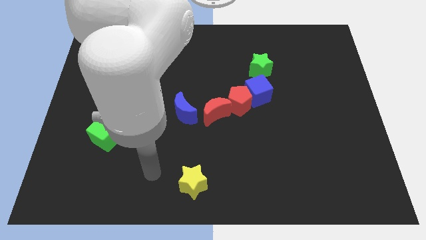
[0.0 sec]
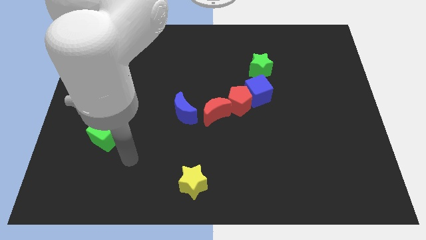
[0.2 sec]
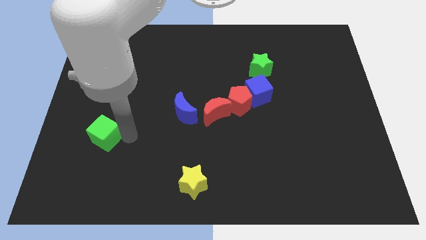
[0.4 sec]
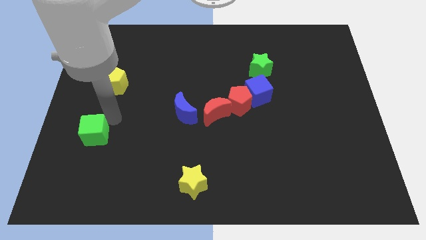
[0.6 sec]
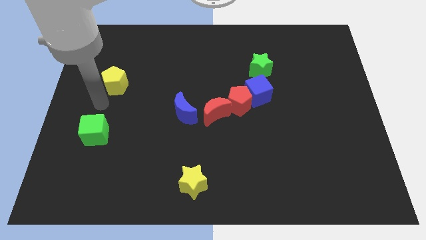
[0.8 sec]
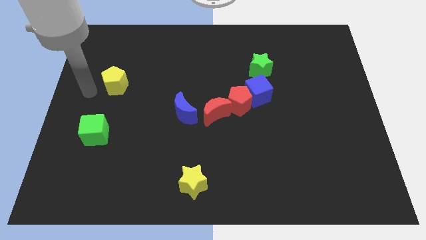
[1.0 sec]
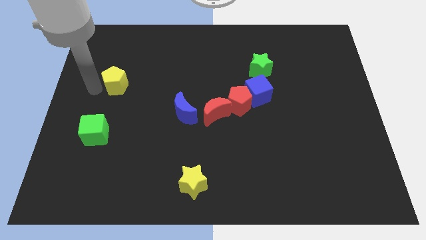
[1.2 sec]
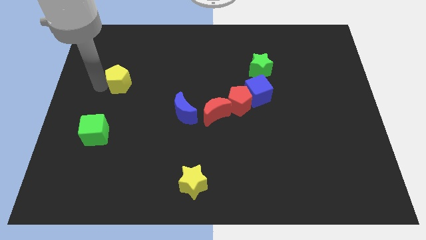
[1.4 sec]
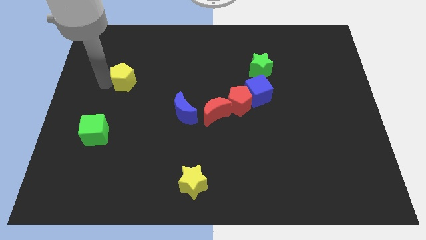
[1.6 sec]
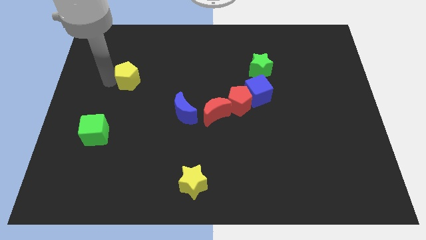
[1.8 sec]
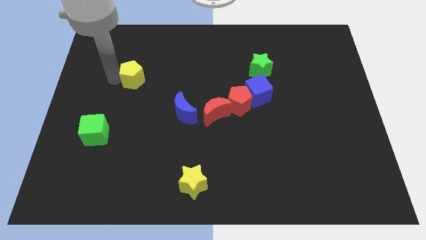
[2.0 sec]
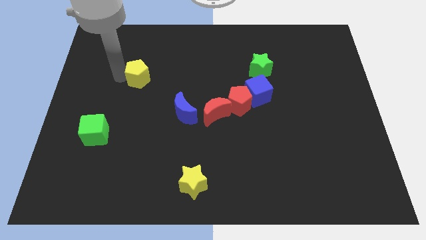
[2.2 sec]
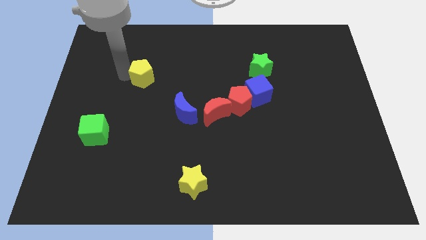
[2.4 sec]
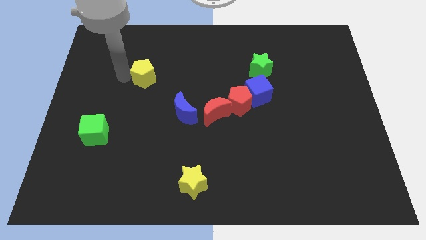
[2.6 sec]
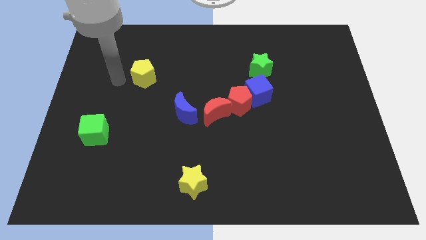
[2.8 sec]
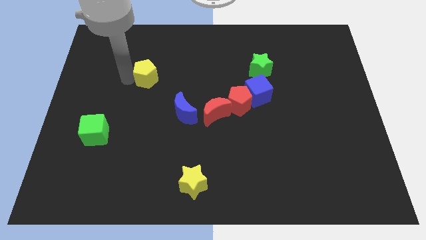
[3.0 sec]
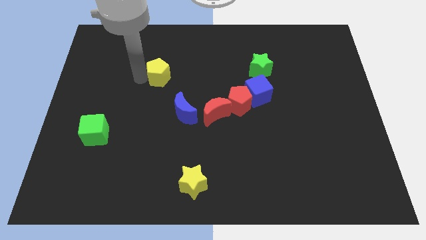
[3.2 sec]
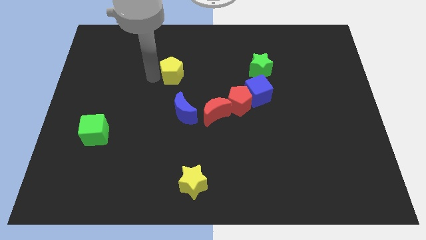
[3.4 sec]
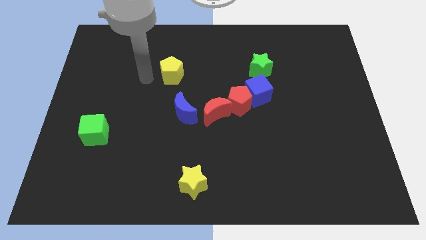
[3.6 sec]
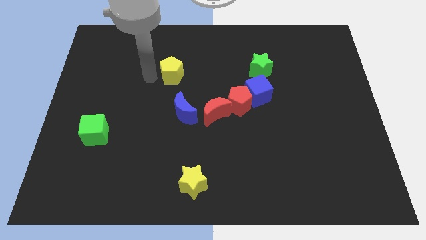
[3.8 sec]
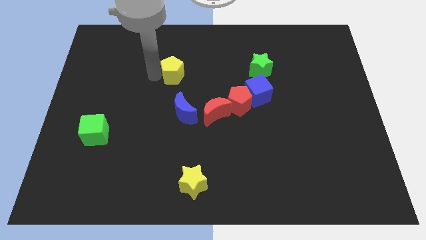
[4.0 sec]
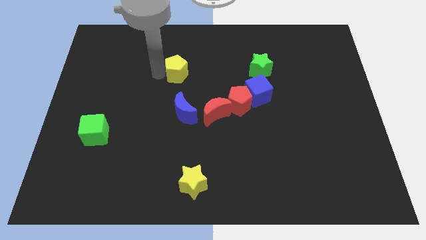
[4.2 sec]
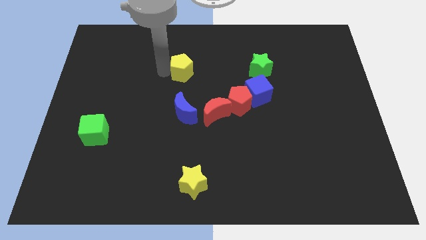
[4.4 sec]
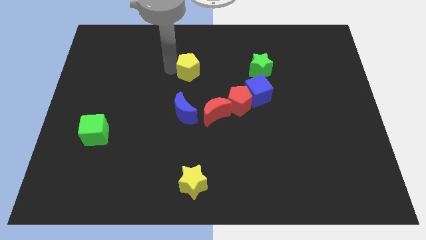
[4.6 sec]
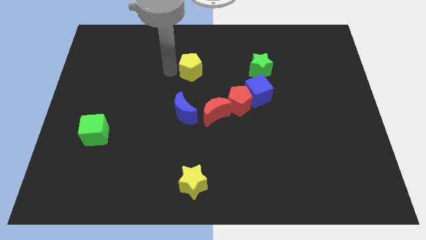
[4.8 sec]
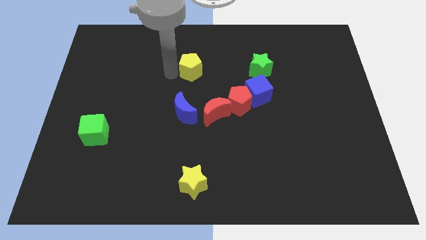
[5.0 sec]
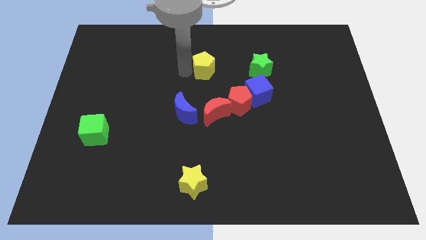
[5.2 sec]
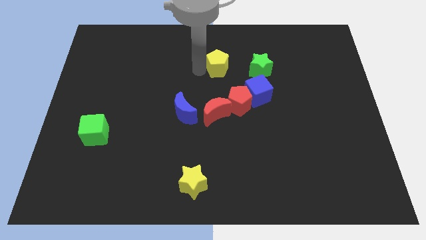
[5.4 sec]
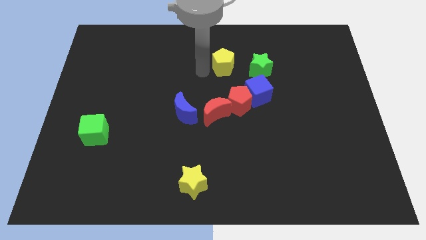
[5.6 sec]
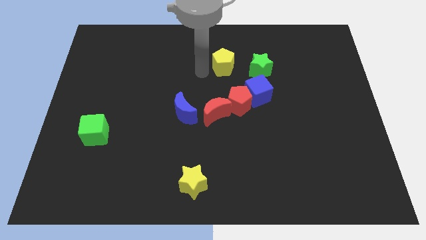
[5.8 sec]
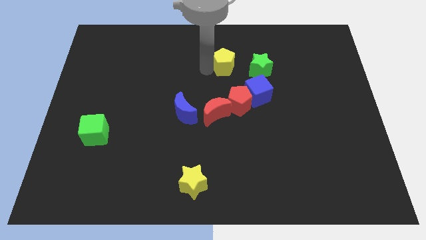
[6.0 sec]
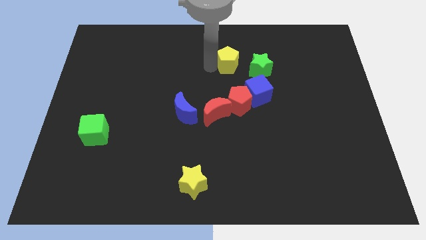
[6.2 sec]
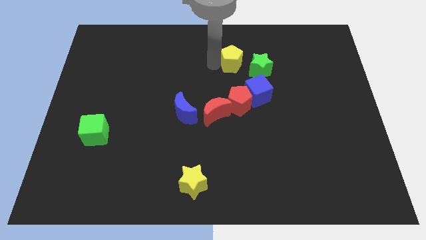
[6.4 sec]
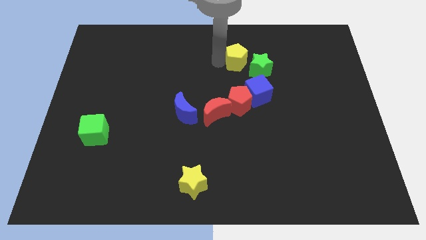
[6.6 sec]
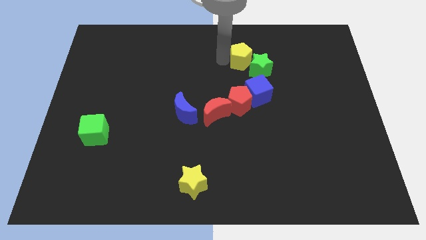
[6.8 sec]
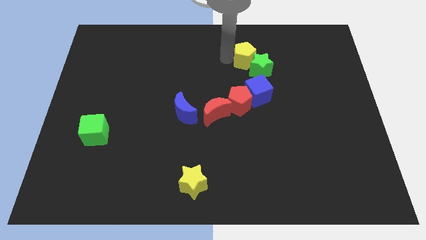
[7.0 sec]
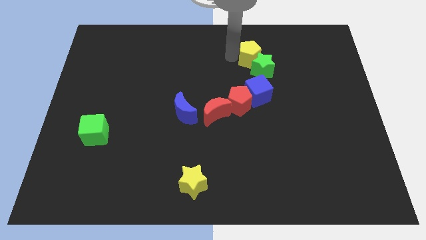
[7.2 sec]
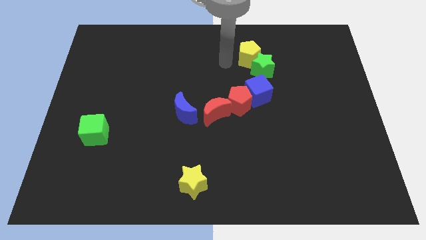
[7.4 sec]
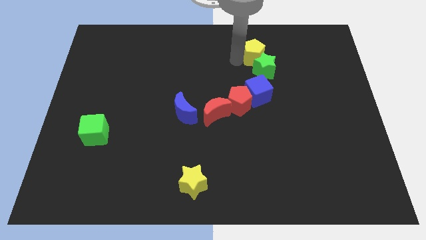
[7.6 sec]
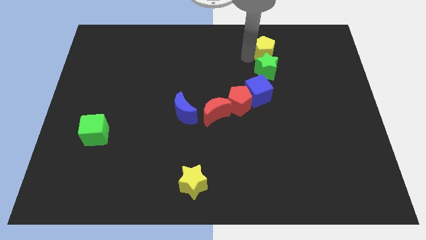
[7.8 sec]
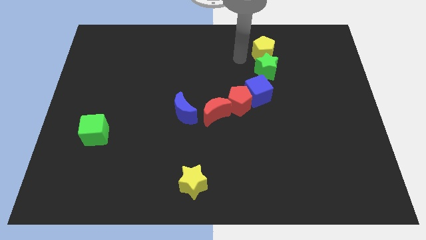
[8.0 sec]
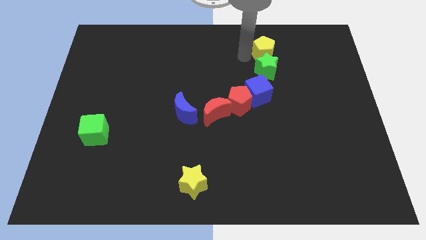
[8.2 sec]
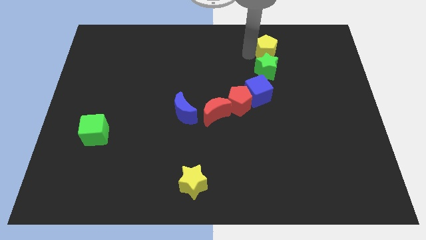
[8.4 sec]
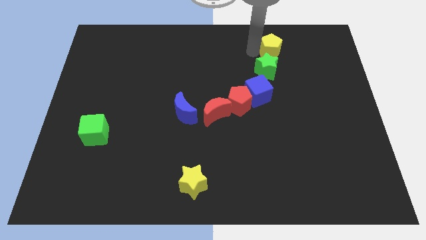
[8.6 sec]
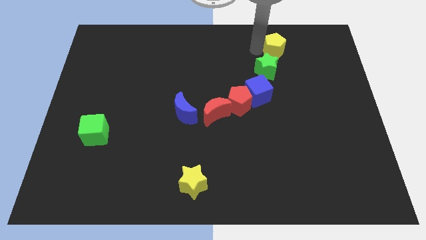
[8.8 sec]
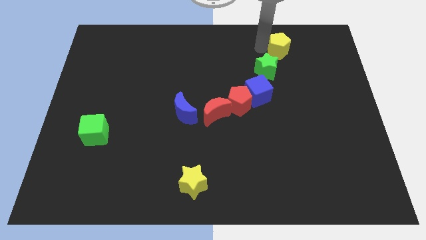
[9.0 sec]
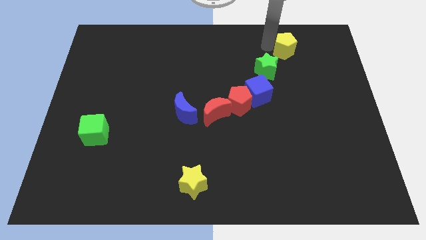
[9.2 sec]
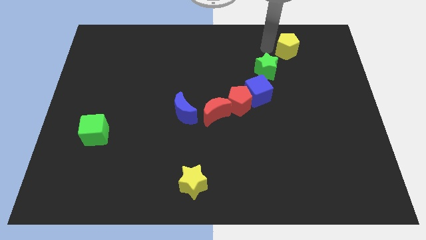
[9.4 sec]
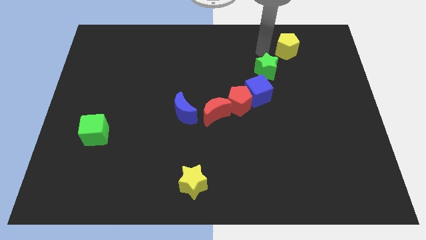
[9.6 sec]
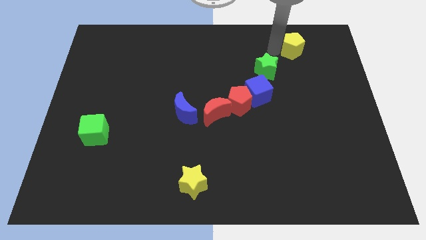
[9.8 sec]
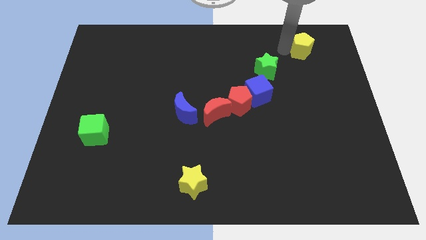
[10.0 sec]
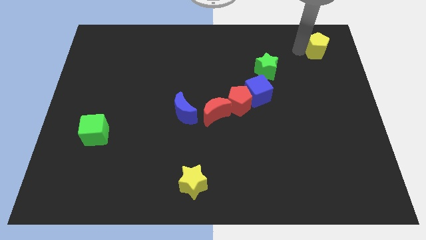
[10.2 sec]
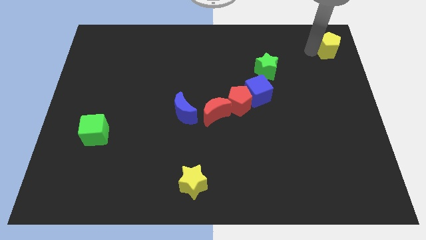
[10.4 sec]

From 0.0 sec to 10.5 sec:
slide the yellow pentagon to the top right corner

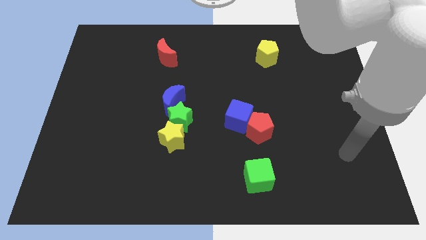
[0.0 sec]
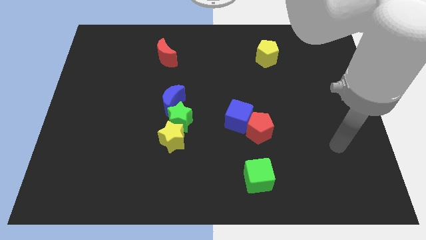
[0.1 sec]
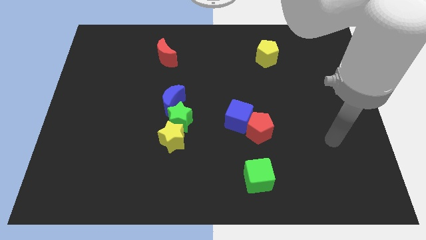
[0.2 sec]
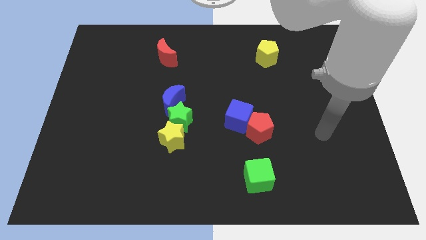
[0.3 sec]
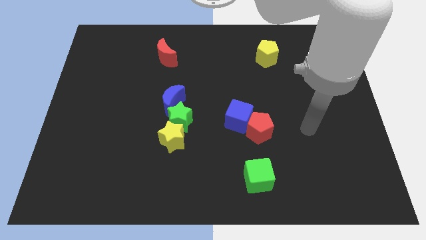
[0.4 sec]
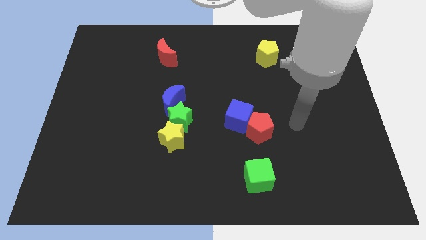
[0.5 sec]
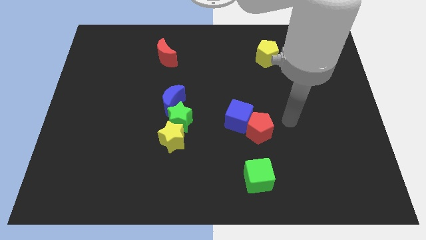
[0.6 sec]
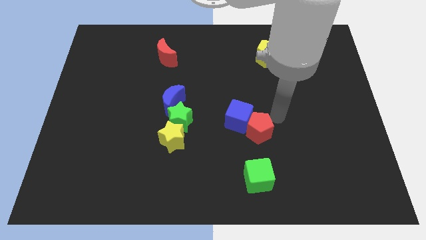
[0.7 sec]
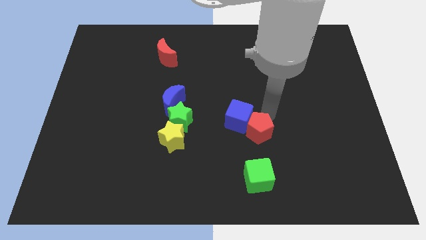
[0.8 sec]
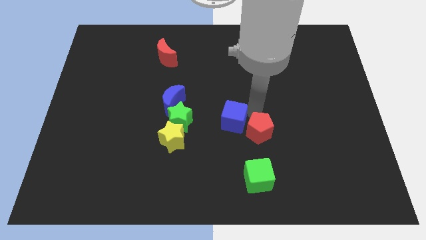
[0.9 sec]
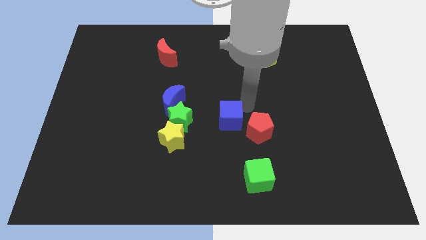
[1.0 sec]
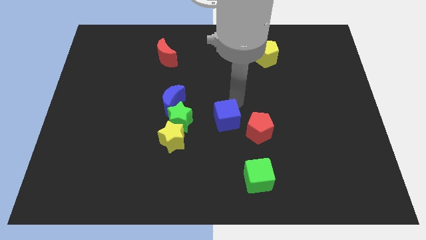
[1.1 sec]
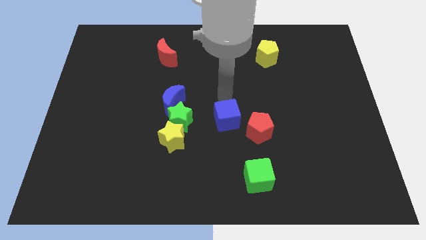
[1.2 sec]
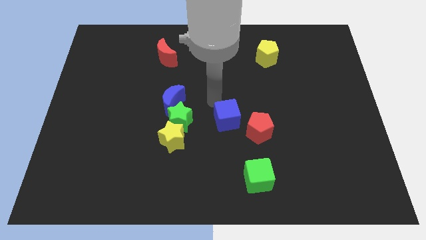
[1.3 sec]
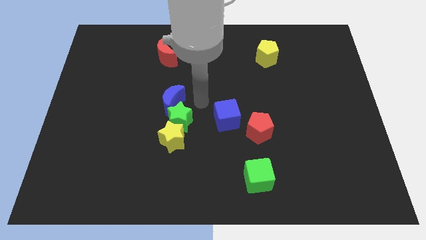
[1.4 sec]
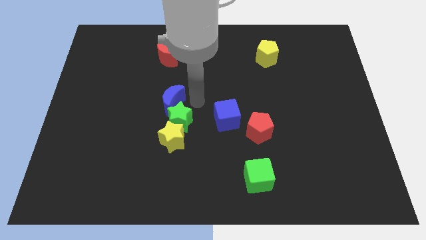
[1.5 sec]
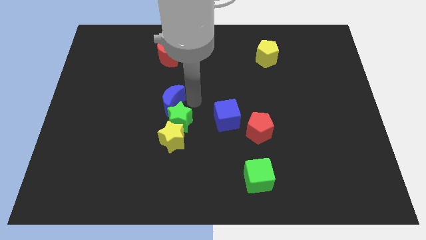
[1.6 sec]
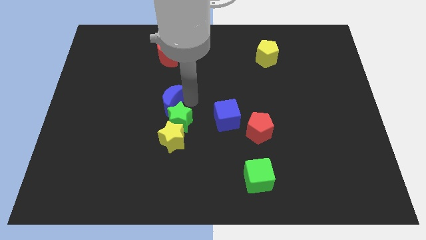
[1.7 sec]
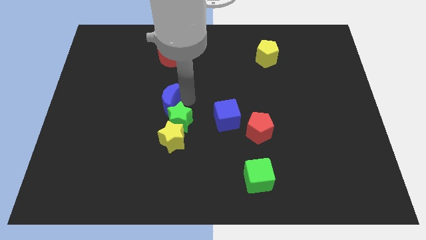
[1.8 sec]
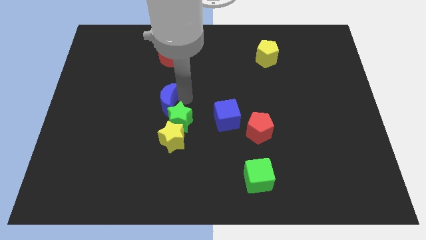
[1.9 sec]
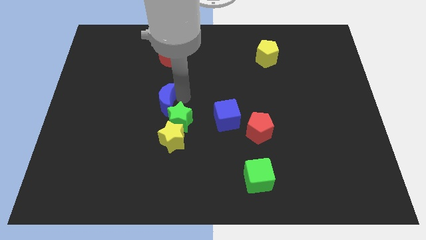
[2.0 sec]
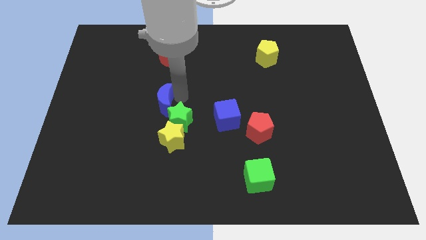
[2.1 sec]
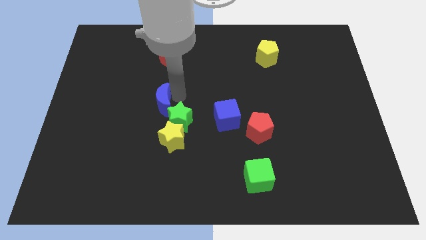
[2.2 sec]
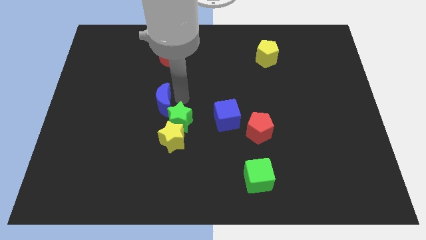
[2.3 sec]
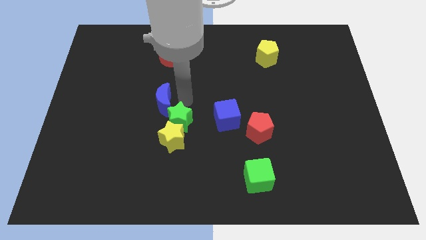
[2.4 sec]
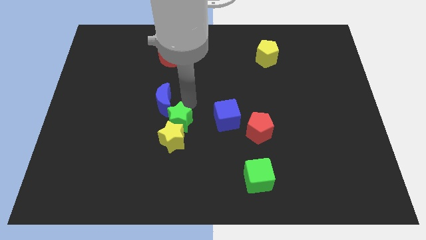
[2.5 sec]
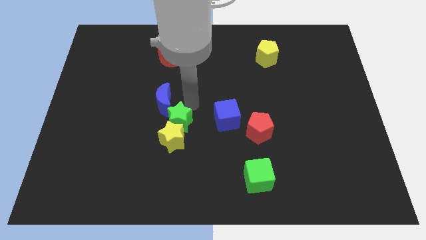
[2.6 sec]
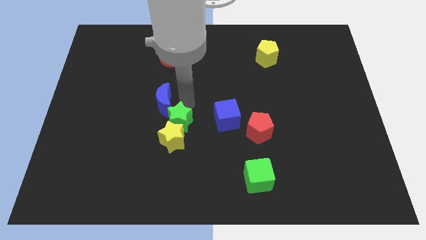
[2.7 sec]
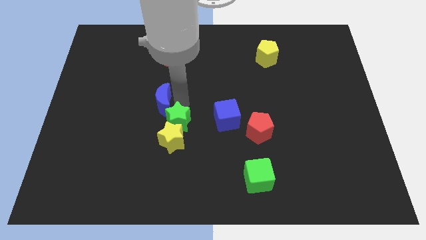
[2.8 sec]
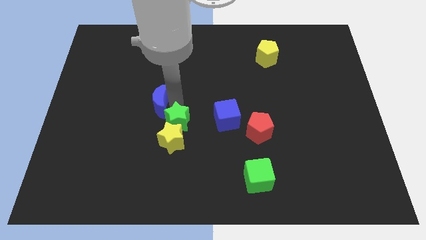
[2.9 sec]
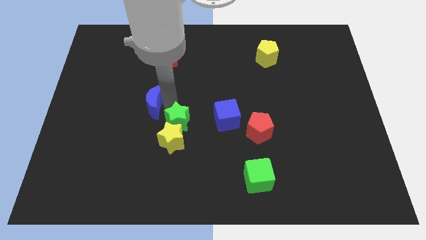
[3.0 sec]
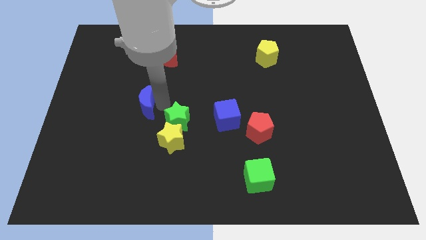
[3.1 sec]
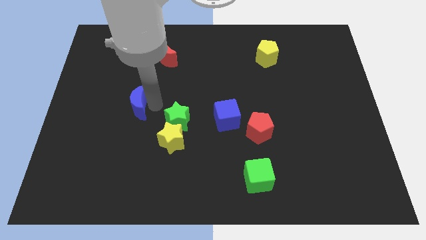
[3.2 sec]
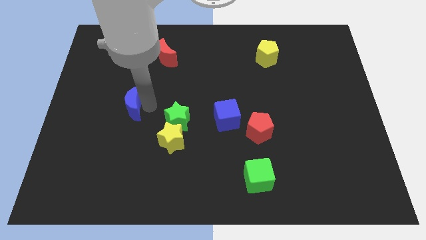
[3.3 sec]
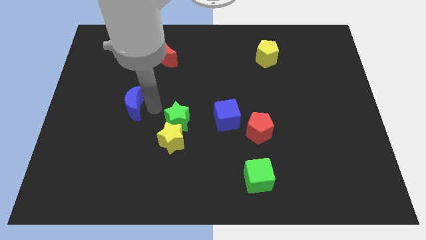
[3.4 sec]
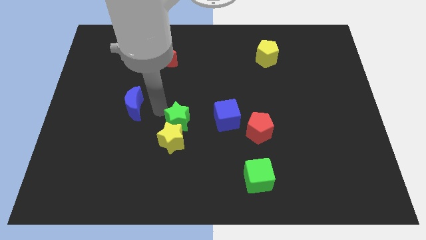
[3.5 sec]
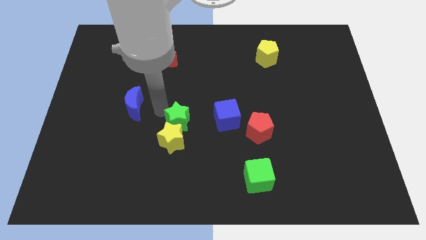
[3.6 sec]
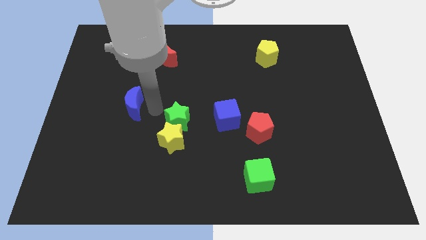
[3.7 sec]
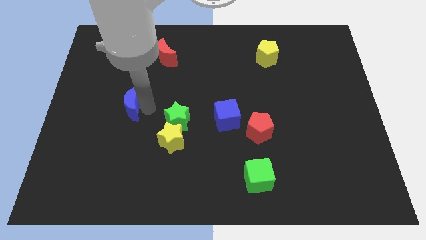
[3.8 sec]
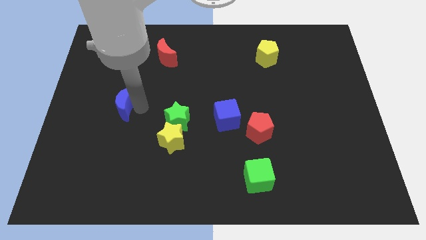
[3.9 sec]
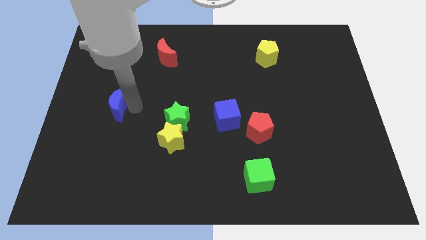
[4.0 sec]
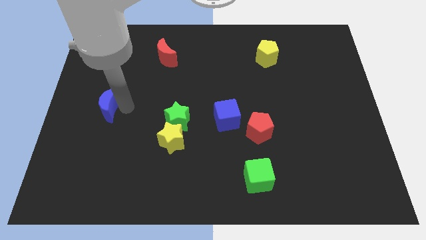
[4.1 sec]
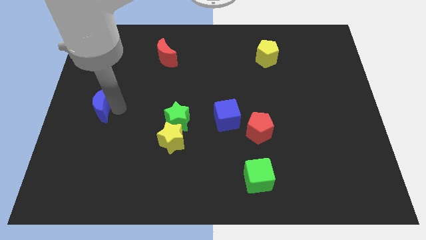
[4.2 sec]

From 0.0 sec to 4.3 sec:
push the blue moon to the center left
